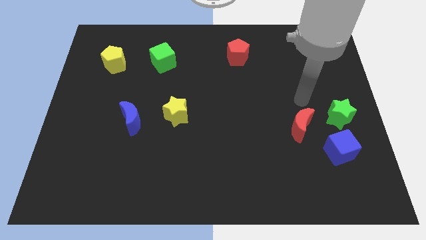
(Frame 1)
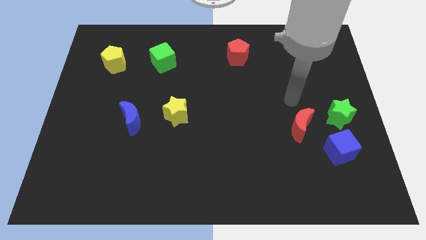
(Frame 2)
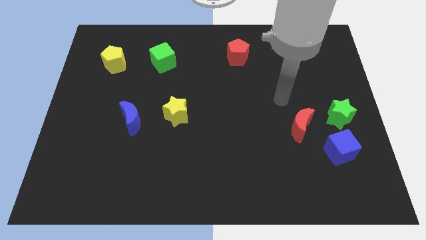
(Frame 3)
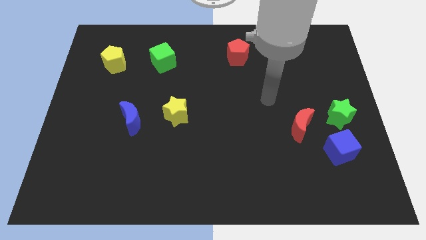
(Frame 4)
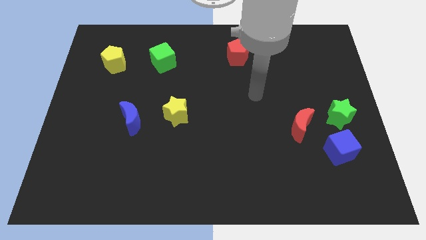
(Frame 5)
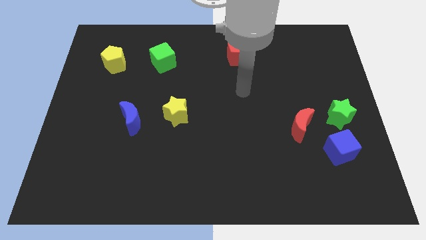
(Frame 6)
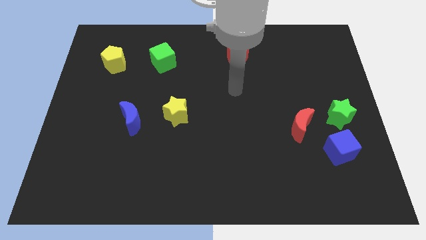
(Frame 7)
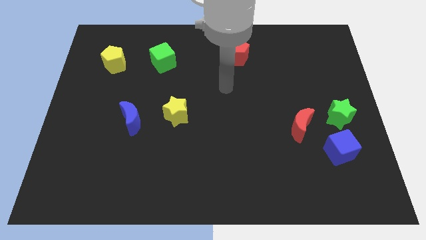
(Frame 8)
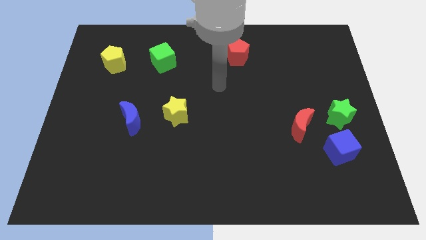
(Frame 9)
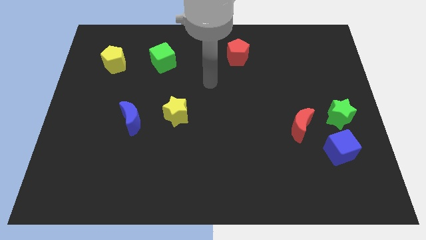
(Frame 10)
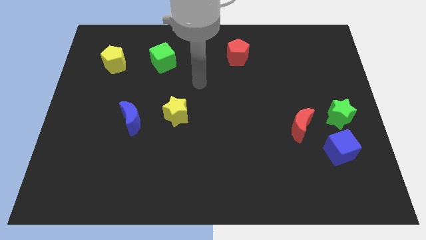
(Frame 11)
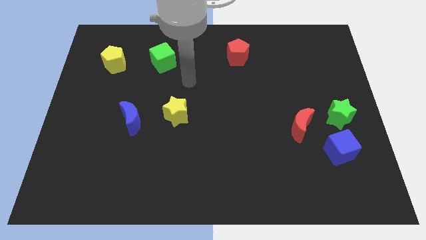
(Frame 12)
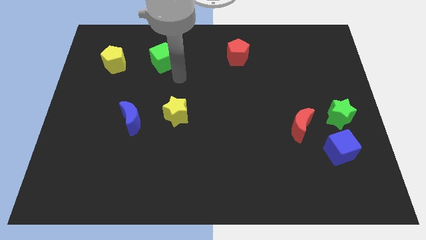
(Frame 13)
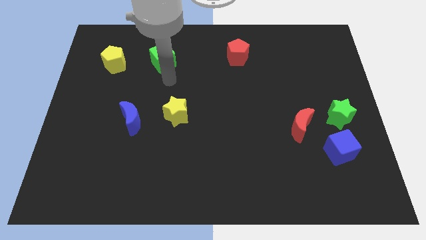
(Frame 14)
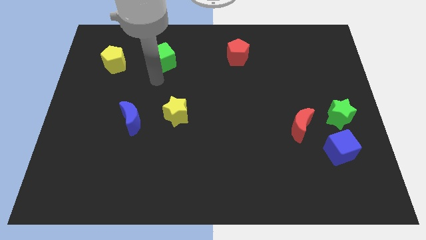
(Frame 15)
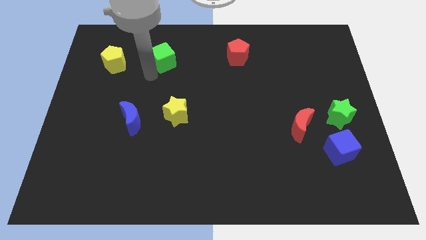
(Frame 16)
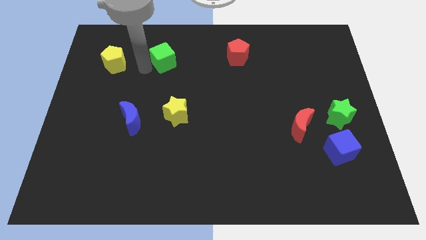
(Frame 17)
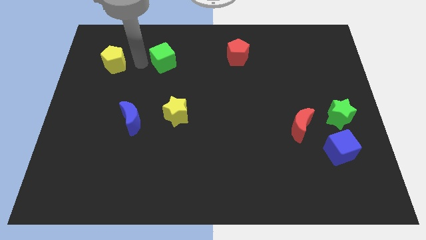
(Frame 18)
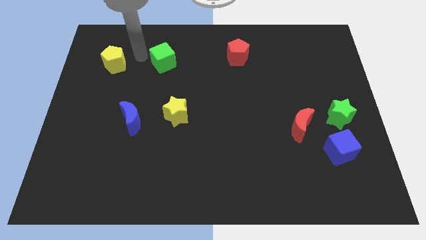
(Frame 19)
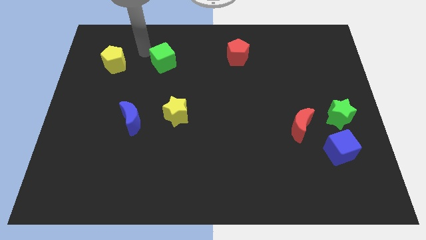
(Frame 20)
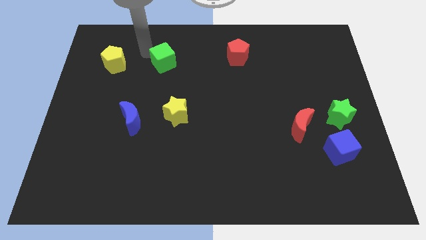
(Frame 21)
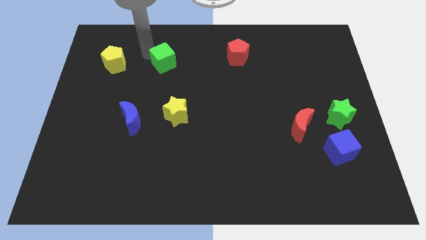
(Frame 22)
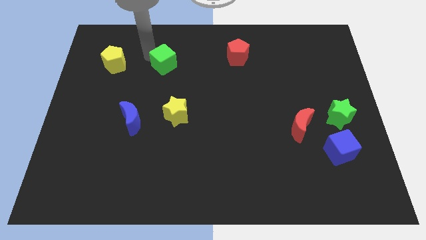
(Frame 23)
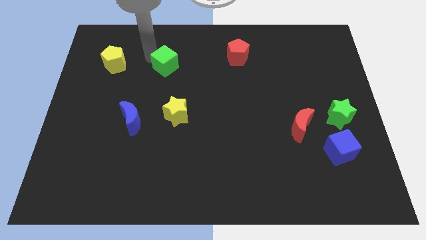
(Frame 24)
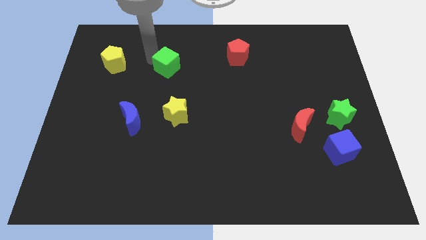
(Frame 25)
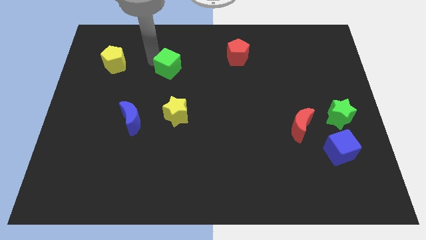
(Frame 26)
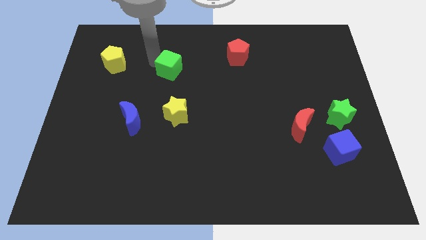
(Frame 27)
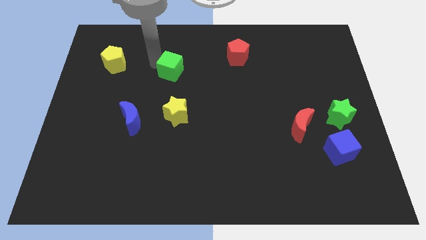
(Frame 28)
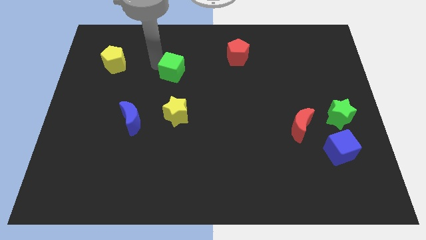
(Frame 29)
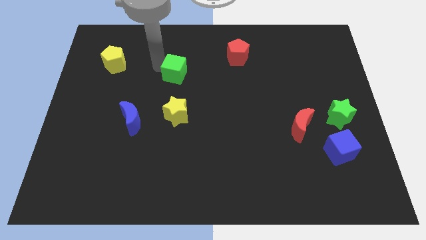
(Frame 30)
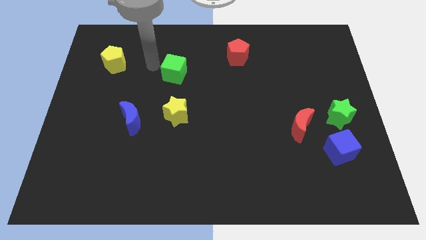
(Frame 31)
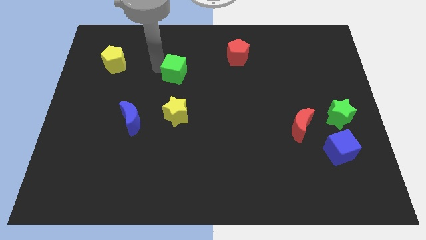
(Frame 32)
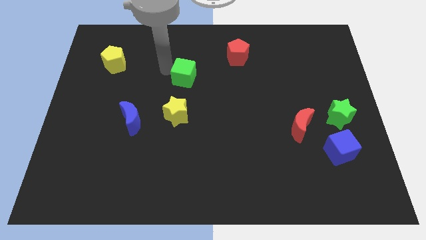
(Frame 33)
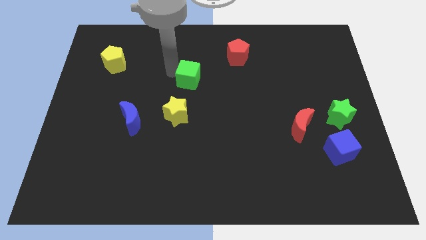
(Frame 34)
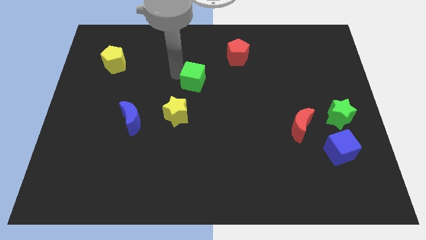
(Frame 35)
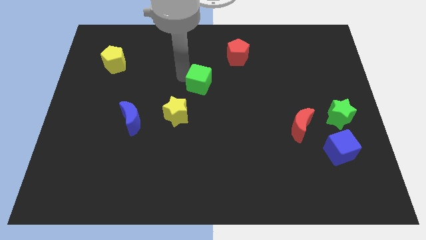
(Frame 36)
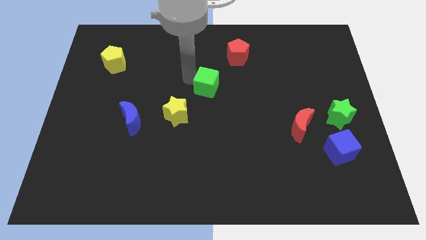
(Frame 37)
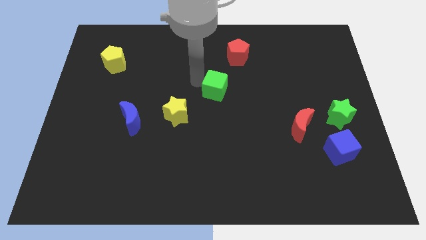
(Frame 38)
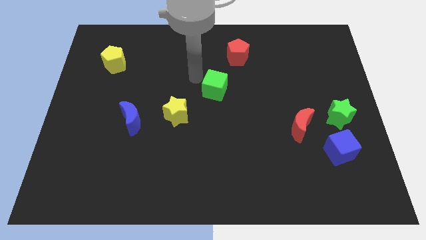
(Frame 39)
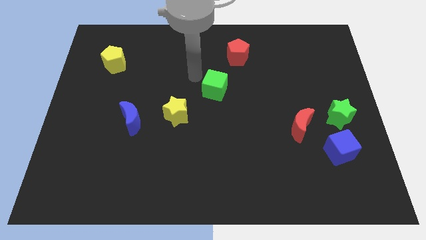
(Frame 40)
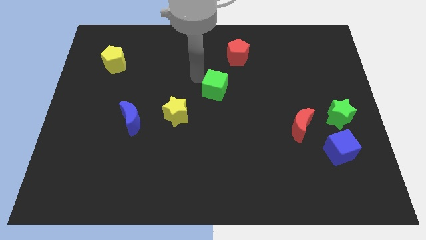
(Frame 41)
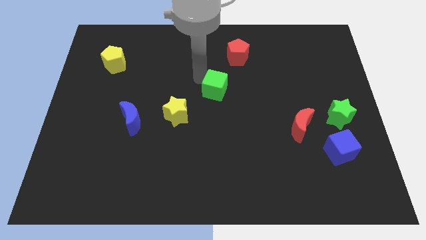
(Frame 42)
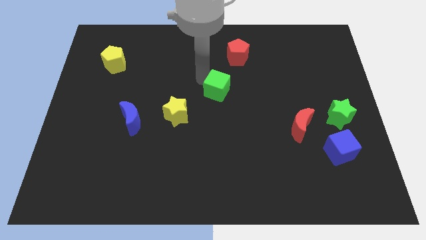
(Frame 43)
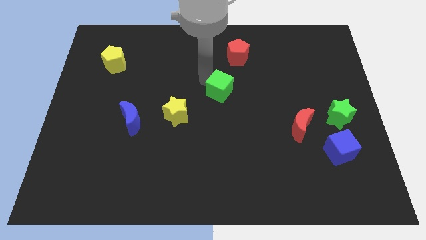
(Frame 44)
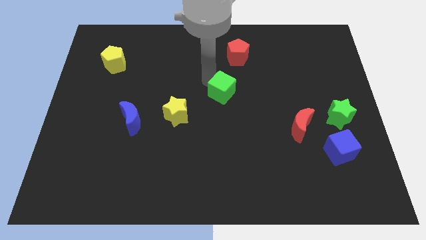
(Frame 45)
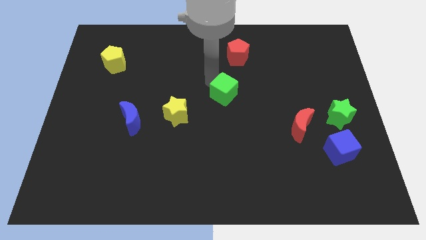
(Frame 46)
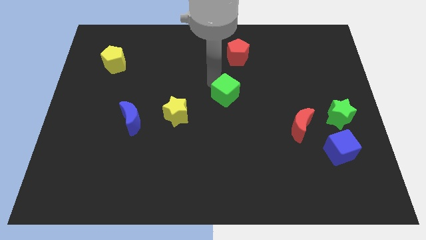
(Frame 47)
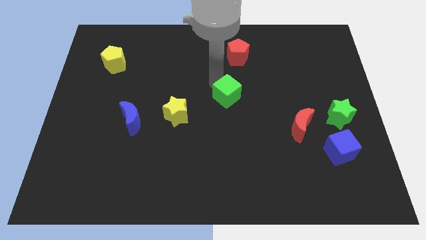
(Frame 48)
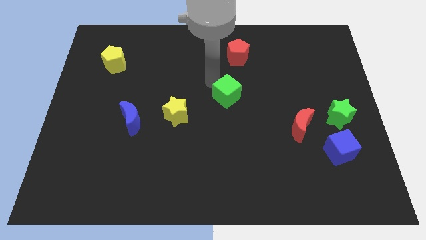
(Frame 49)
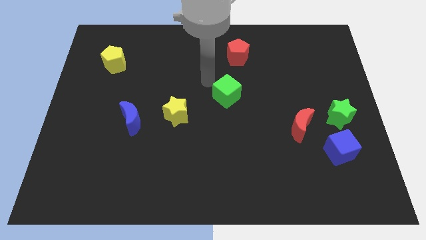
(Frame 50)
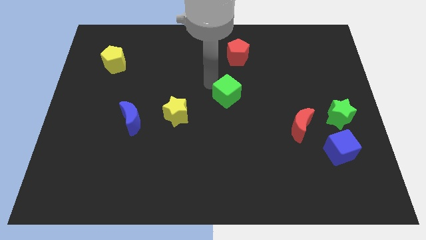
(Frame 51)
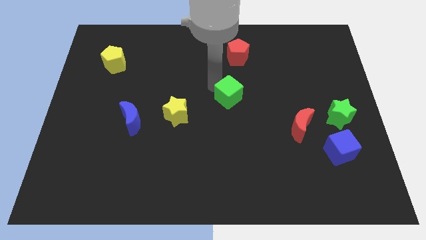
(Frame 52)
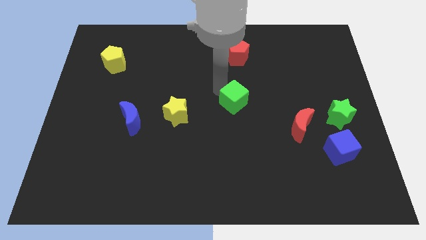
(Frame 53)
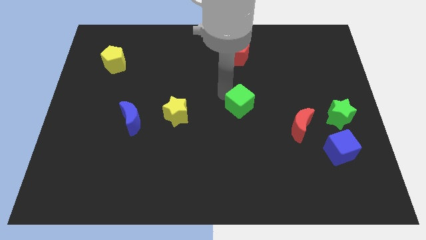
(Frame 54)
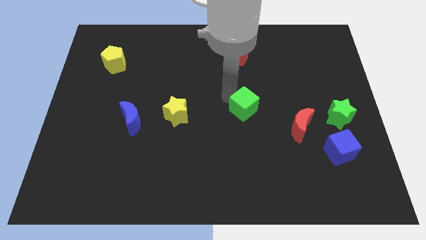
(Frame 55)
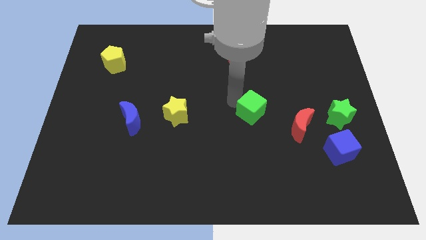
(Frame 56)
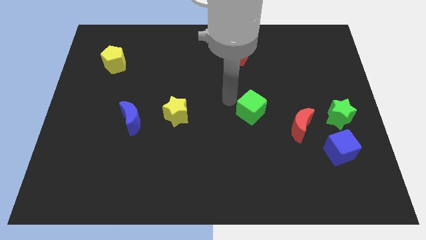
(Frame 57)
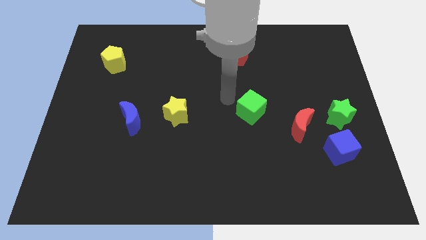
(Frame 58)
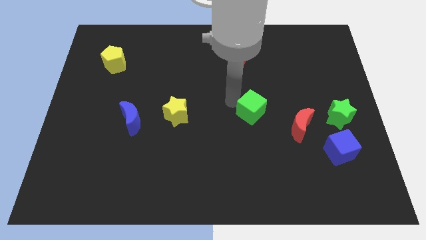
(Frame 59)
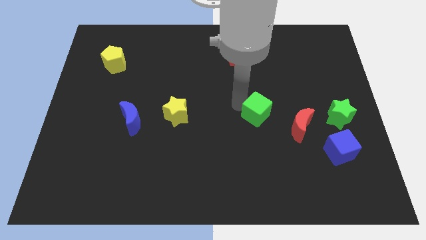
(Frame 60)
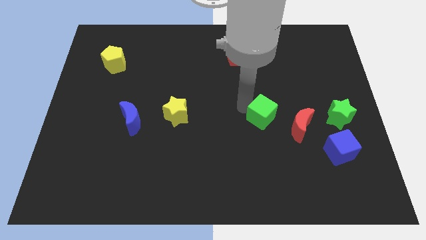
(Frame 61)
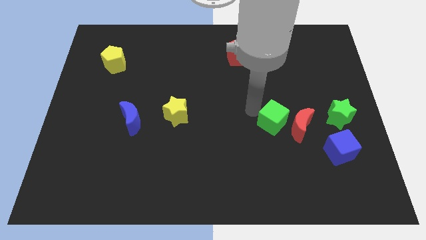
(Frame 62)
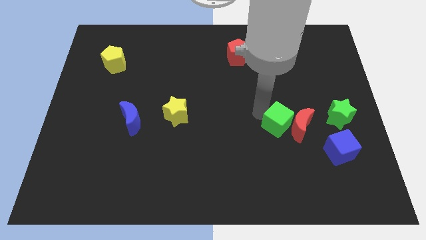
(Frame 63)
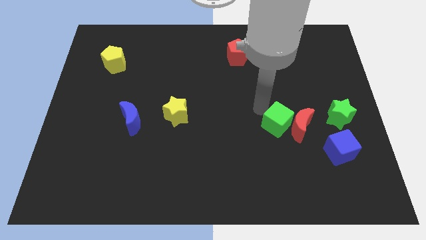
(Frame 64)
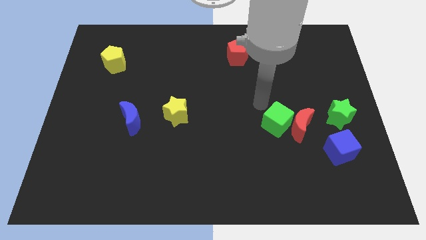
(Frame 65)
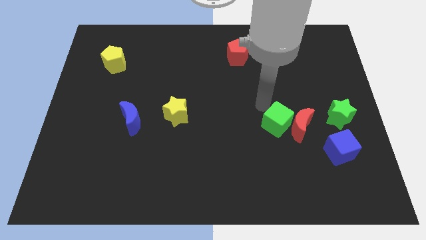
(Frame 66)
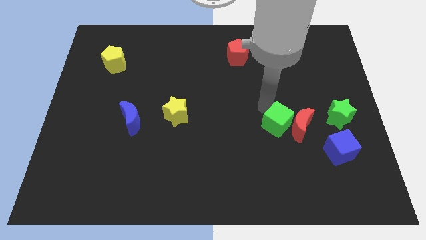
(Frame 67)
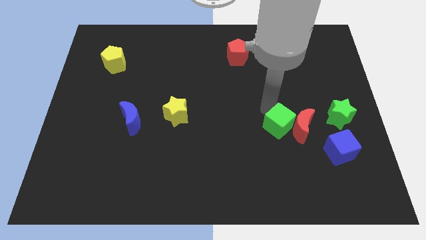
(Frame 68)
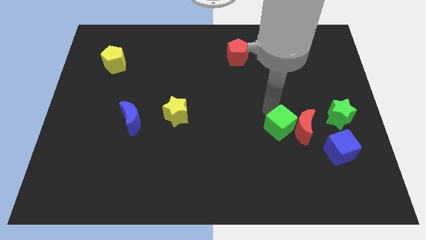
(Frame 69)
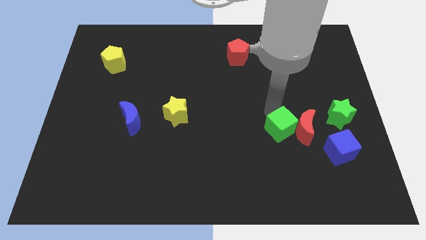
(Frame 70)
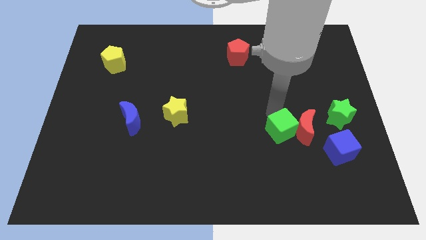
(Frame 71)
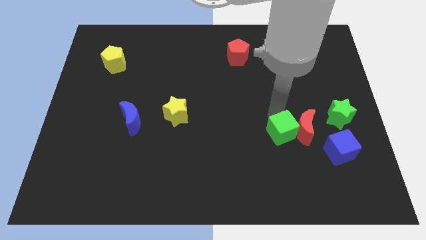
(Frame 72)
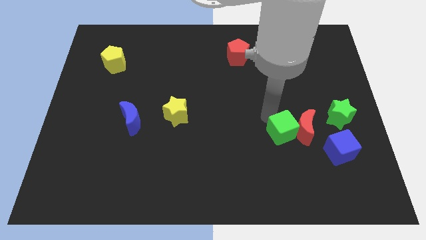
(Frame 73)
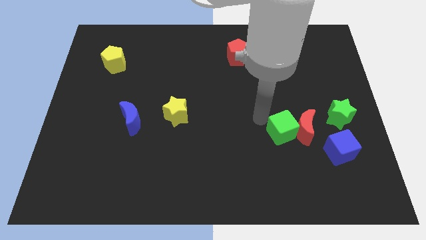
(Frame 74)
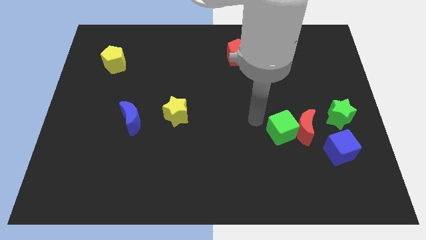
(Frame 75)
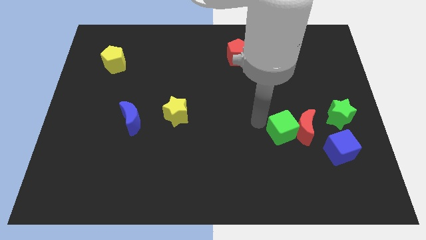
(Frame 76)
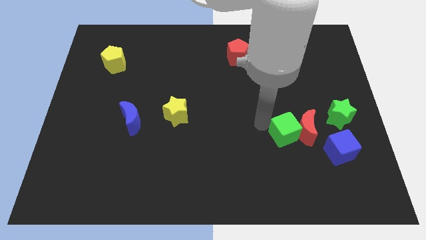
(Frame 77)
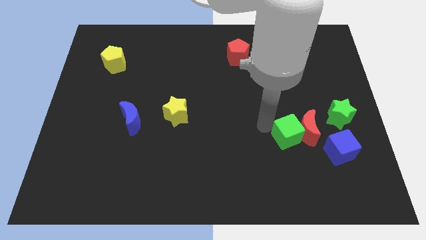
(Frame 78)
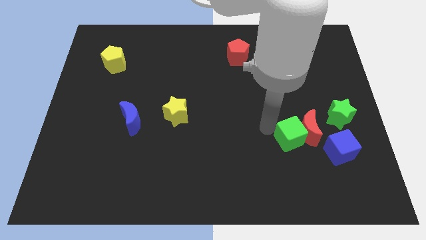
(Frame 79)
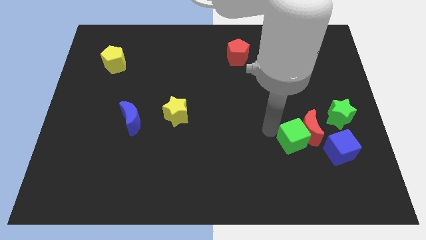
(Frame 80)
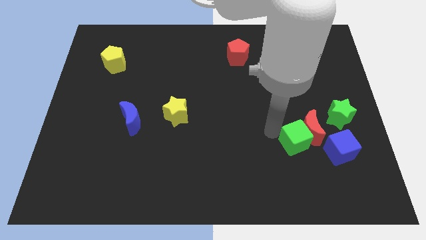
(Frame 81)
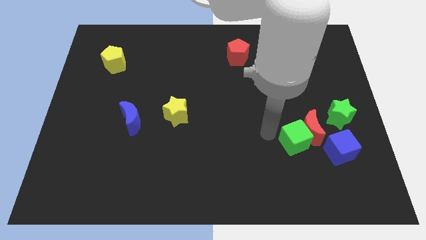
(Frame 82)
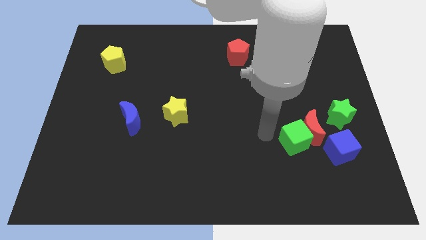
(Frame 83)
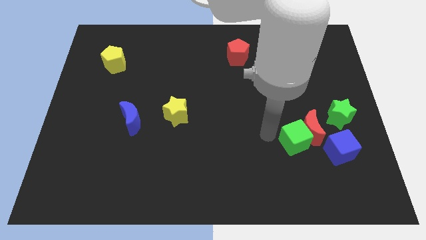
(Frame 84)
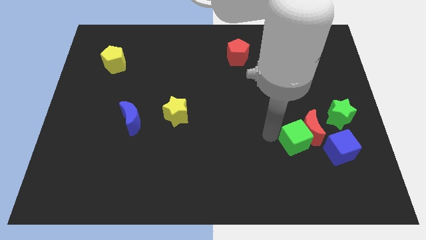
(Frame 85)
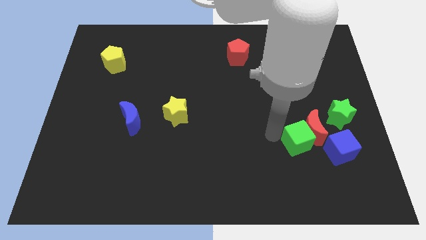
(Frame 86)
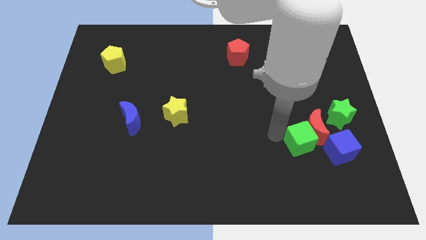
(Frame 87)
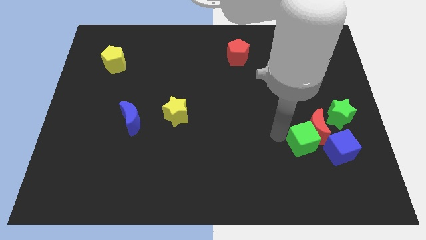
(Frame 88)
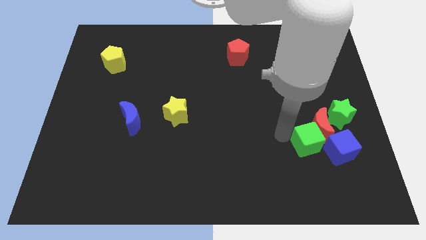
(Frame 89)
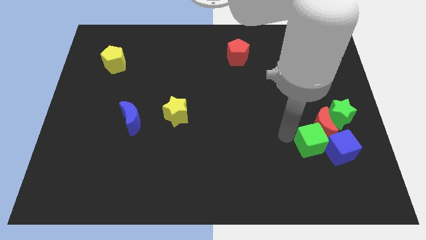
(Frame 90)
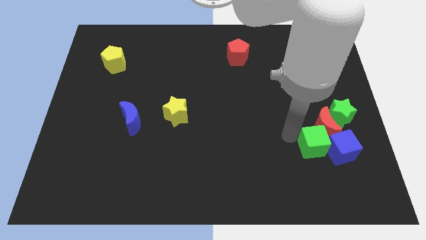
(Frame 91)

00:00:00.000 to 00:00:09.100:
push the green cube next to the blue cube
